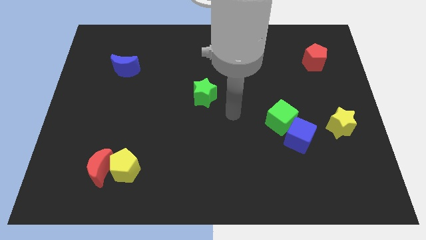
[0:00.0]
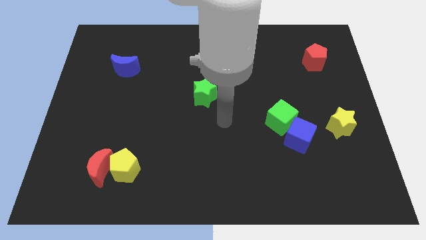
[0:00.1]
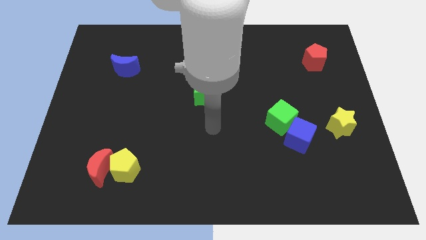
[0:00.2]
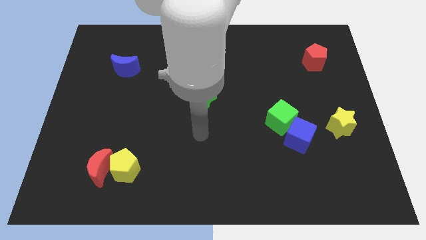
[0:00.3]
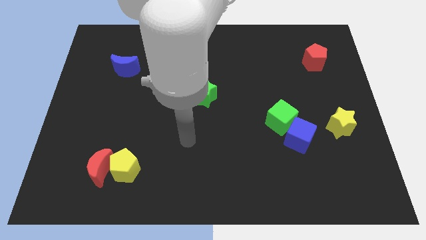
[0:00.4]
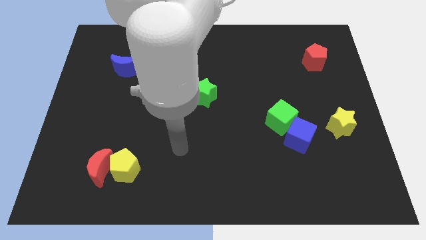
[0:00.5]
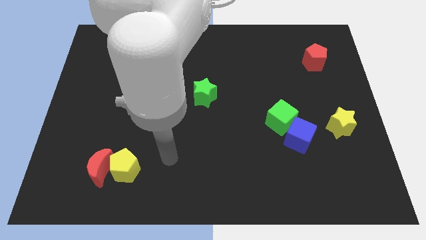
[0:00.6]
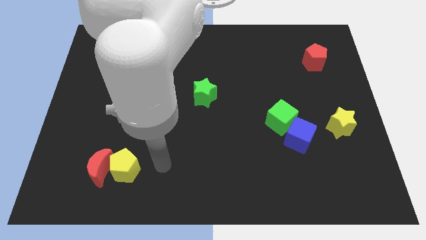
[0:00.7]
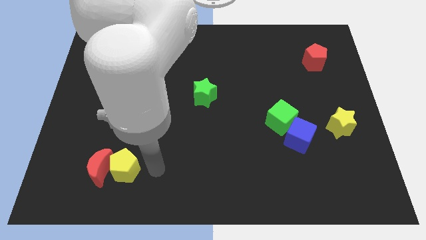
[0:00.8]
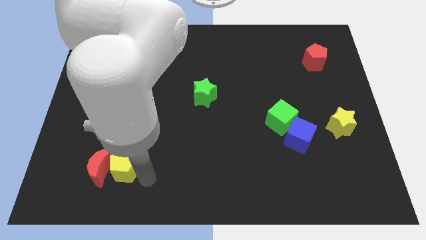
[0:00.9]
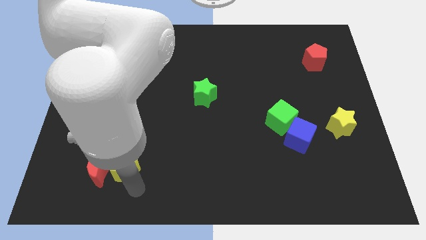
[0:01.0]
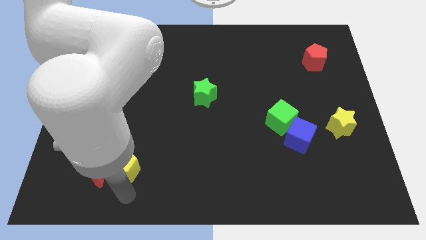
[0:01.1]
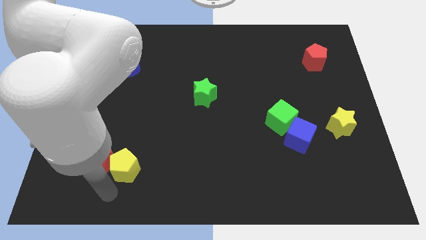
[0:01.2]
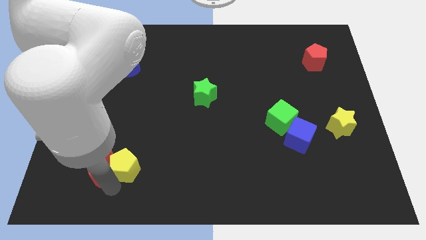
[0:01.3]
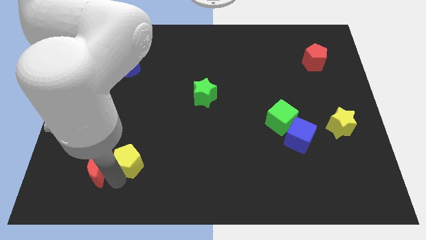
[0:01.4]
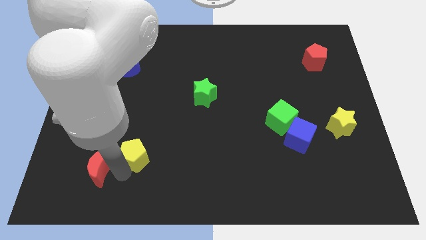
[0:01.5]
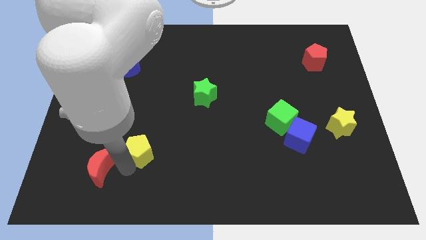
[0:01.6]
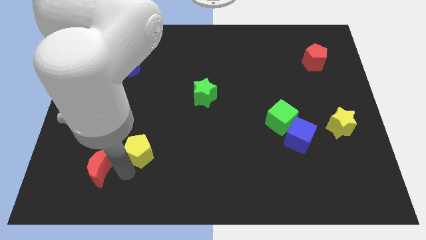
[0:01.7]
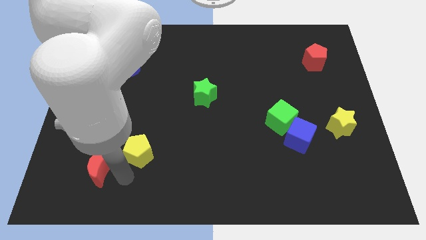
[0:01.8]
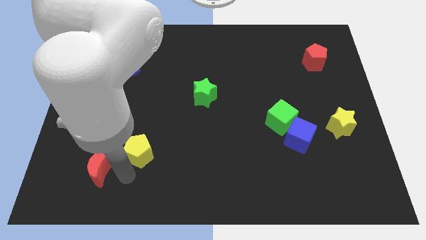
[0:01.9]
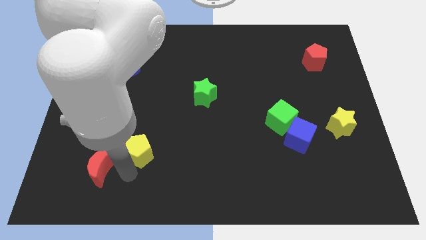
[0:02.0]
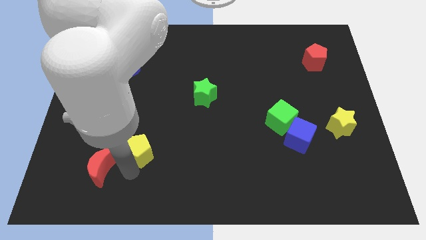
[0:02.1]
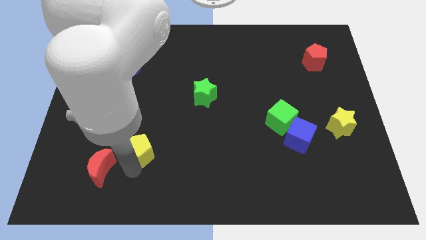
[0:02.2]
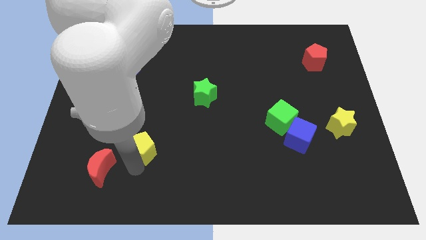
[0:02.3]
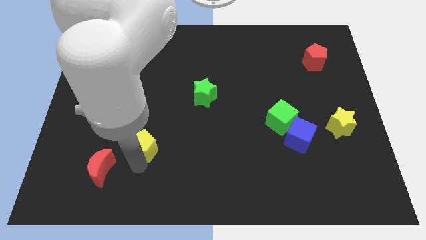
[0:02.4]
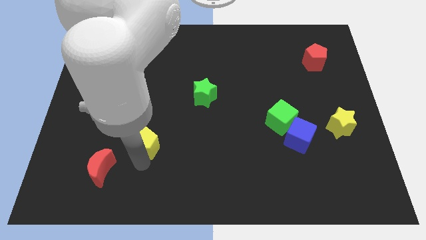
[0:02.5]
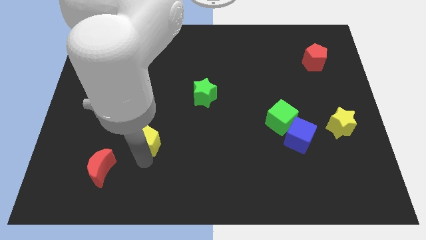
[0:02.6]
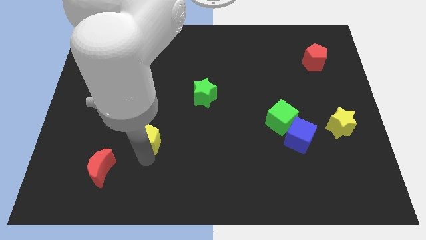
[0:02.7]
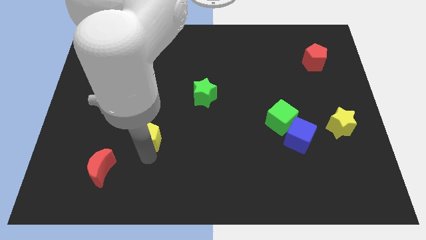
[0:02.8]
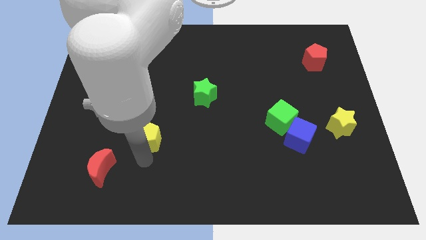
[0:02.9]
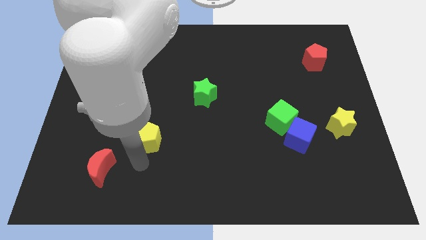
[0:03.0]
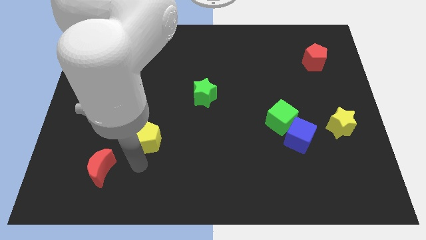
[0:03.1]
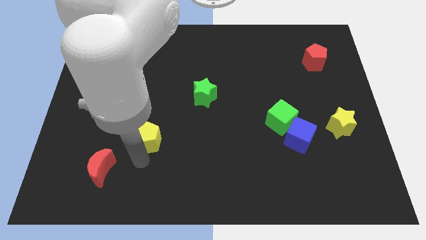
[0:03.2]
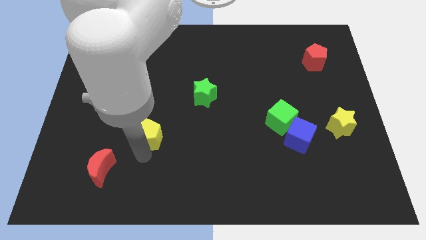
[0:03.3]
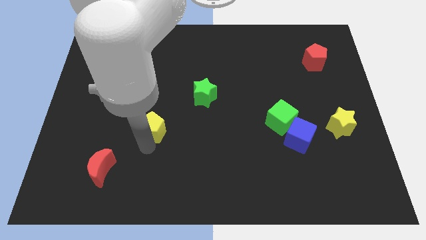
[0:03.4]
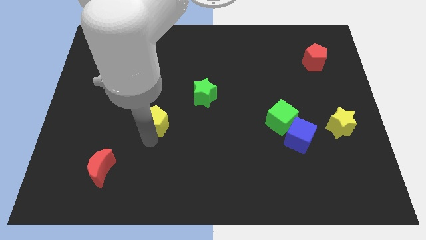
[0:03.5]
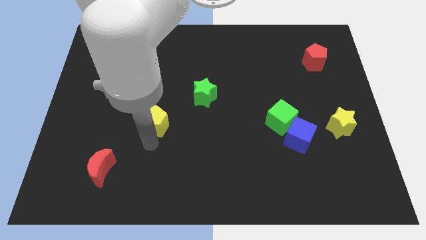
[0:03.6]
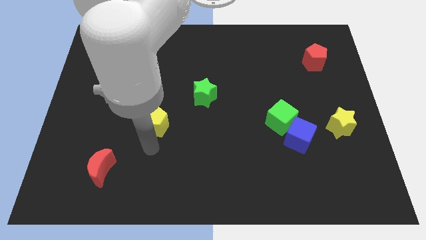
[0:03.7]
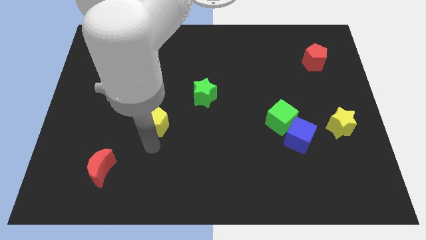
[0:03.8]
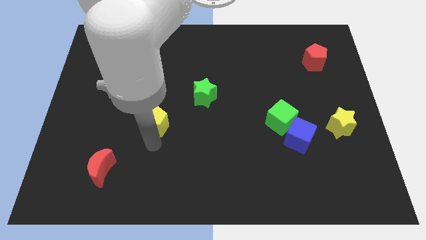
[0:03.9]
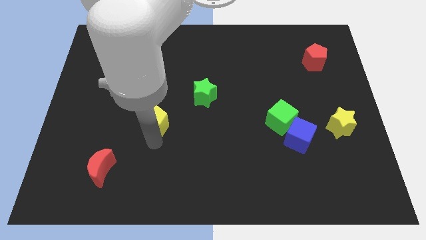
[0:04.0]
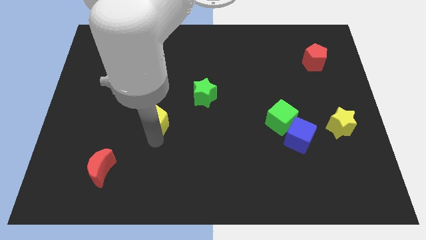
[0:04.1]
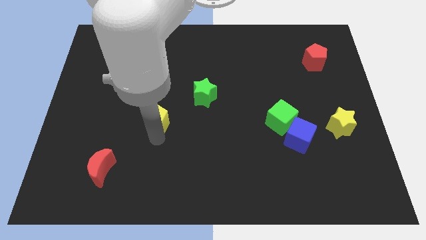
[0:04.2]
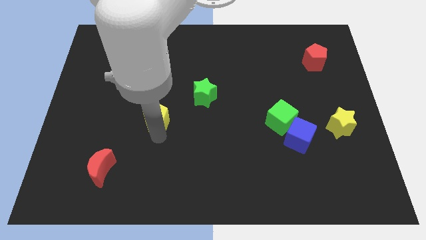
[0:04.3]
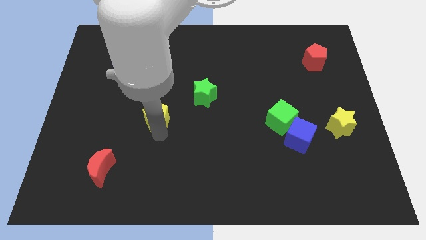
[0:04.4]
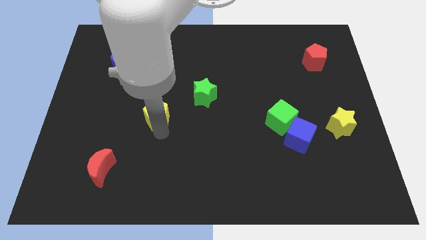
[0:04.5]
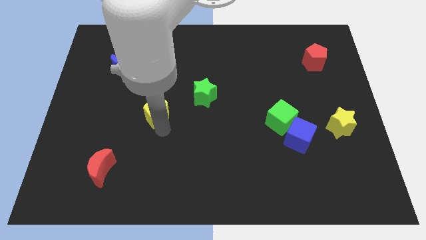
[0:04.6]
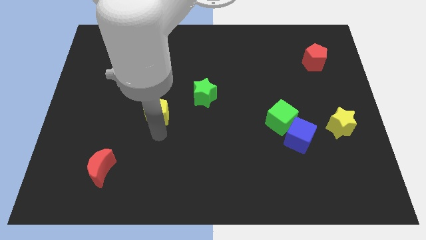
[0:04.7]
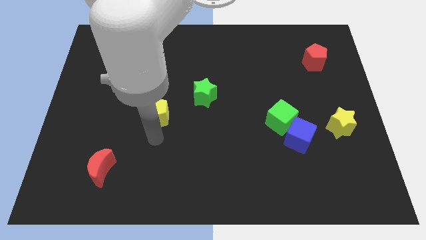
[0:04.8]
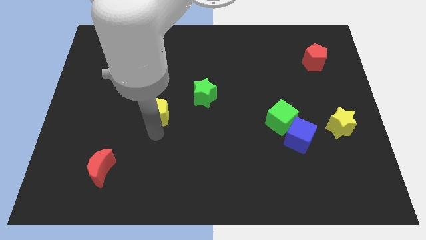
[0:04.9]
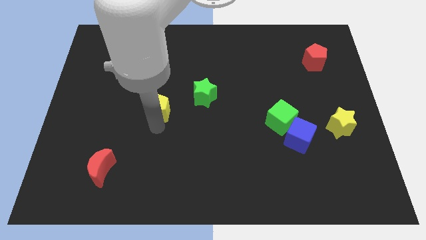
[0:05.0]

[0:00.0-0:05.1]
put the yellow pentagon just left of the green star

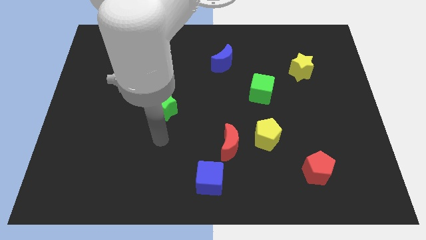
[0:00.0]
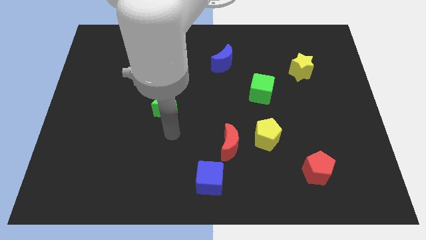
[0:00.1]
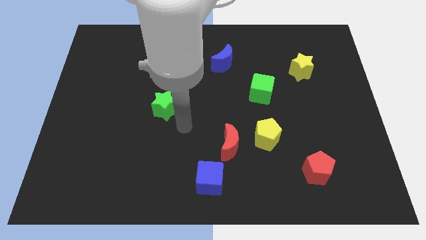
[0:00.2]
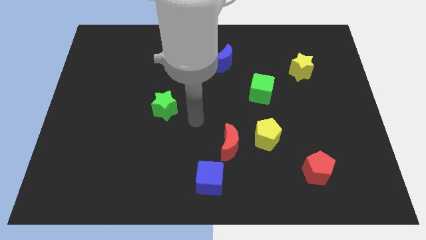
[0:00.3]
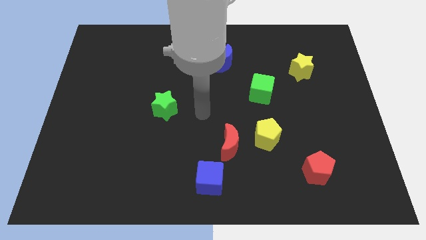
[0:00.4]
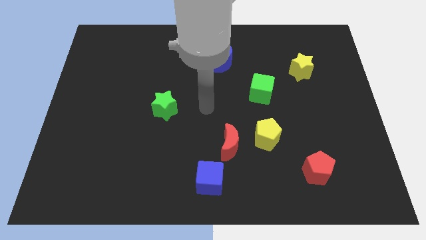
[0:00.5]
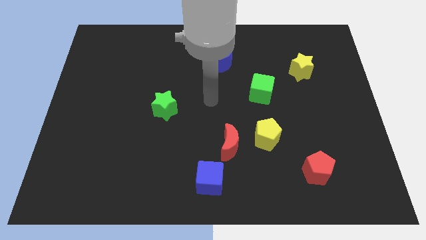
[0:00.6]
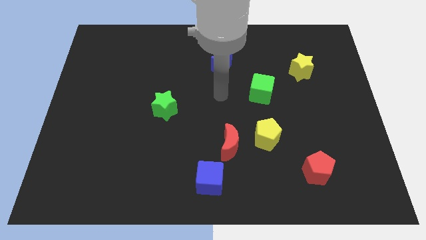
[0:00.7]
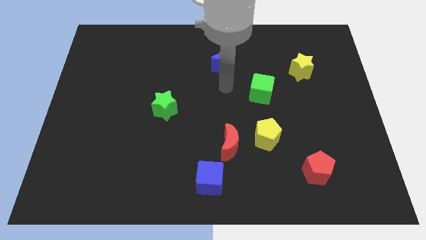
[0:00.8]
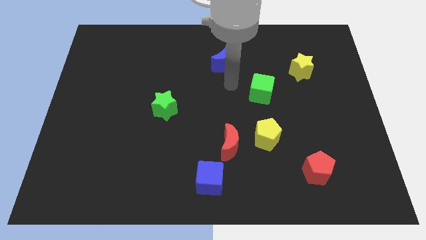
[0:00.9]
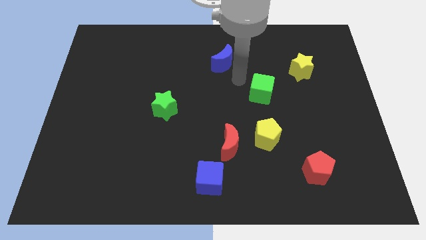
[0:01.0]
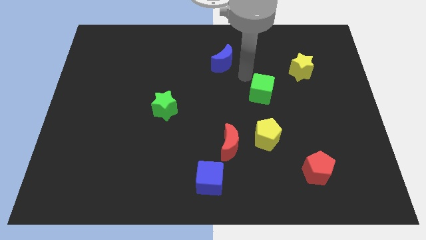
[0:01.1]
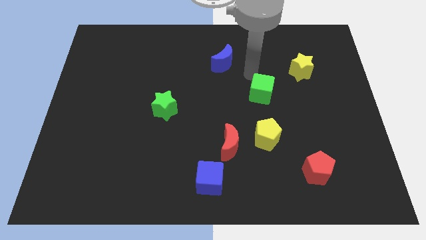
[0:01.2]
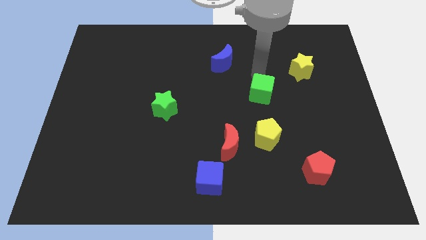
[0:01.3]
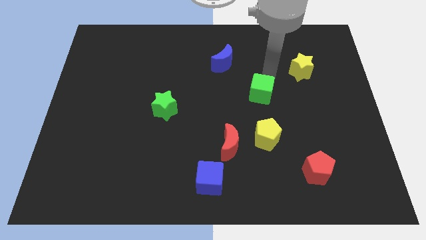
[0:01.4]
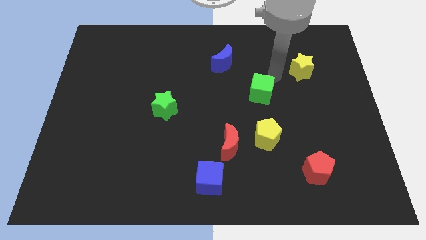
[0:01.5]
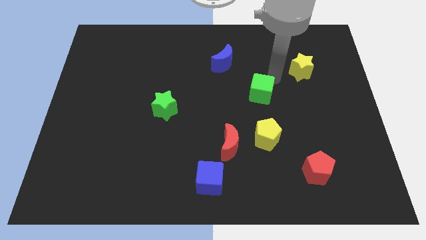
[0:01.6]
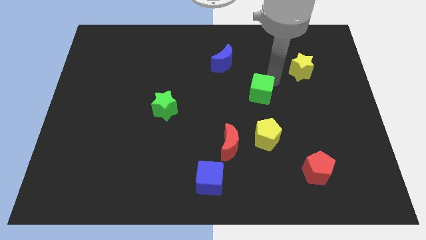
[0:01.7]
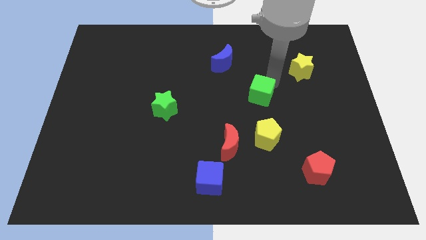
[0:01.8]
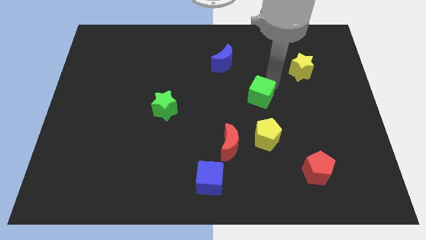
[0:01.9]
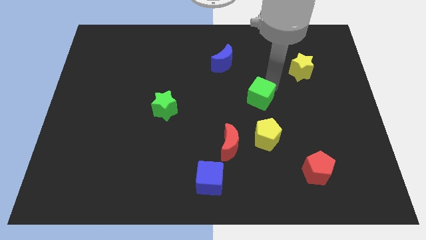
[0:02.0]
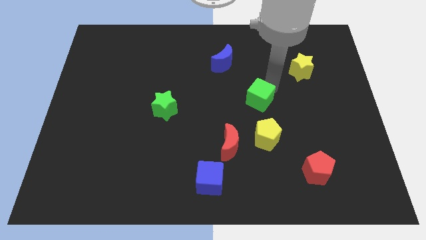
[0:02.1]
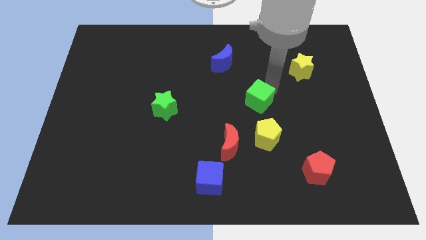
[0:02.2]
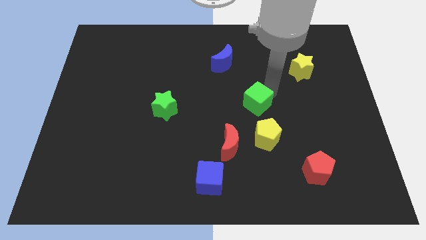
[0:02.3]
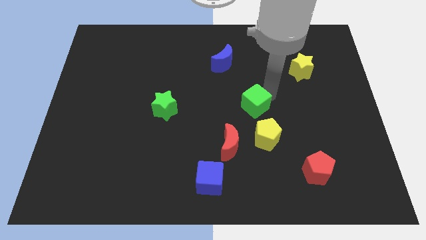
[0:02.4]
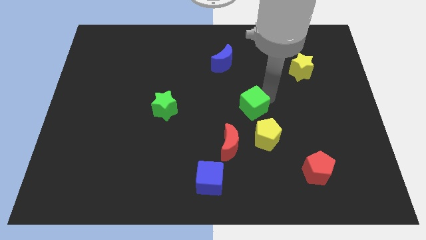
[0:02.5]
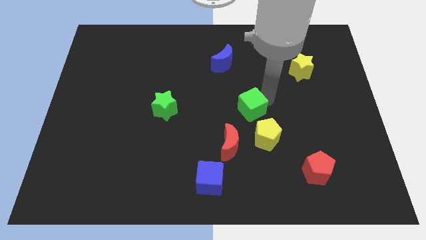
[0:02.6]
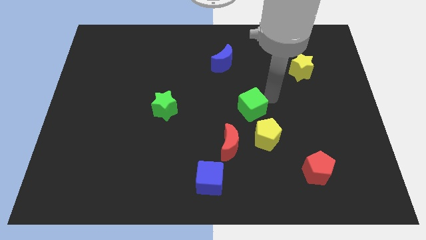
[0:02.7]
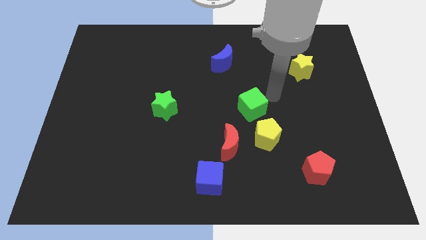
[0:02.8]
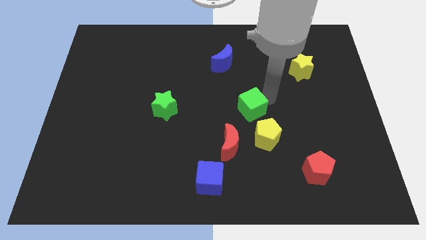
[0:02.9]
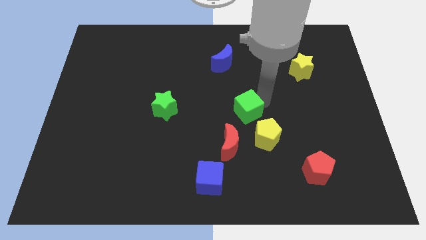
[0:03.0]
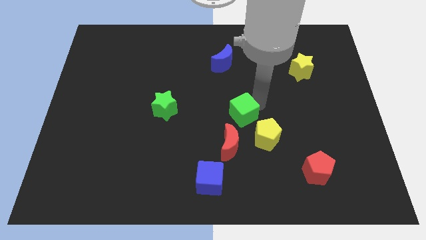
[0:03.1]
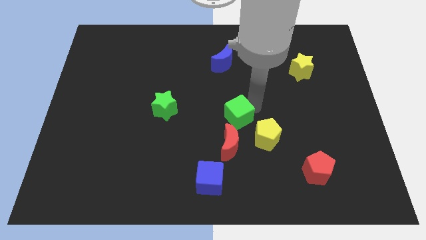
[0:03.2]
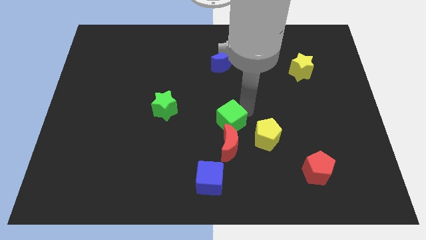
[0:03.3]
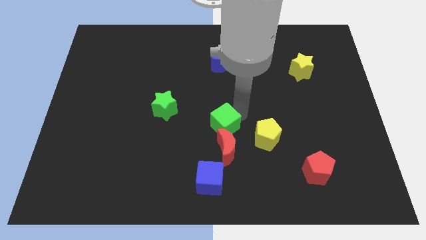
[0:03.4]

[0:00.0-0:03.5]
move the green cube to the top side of the blue cube
